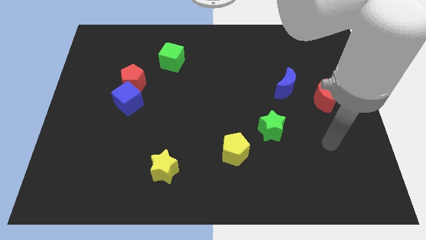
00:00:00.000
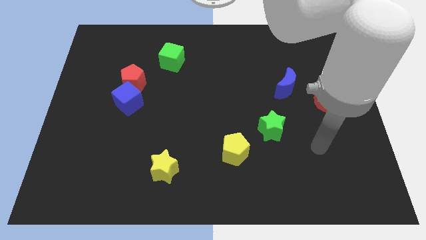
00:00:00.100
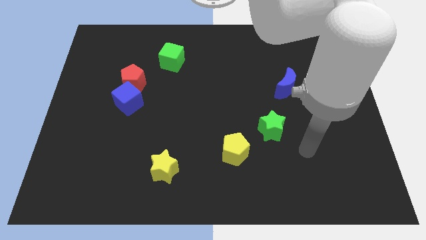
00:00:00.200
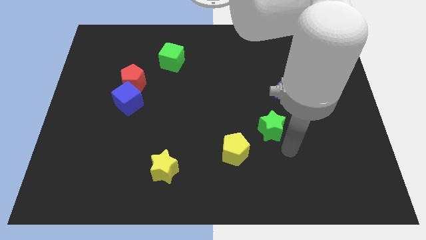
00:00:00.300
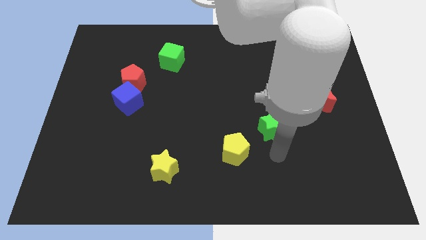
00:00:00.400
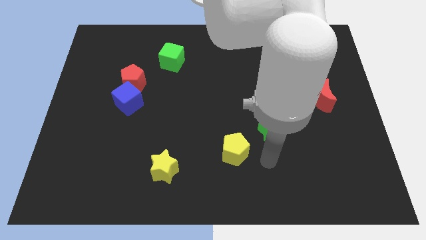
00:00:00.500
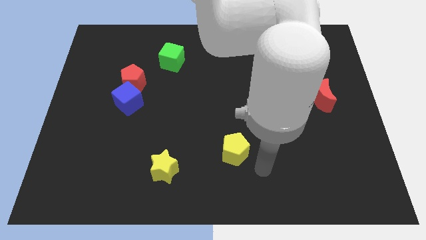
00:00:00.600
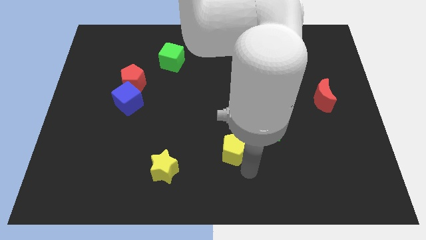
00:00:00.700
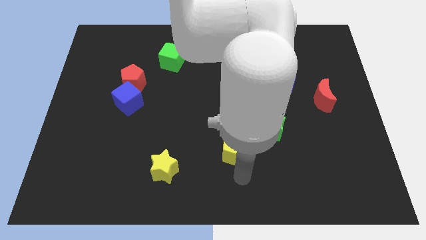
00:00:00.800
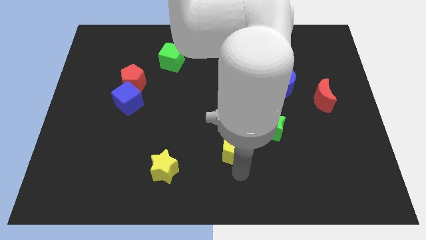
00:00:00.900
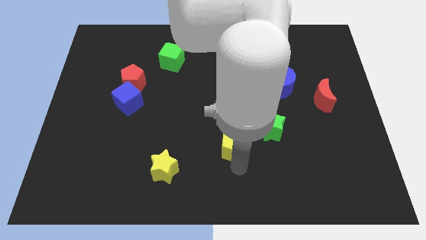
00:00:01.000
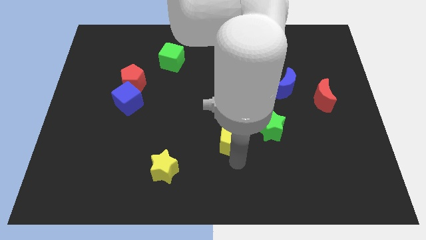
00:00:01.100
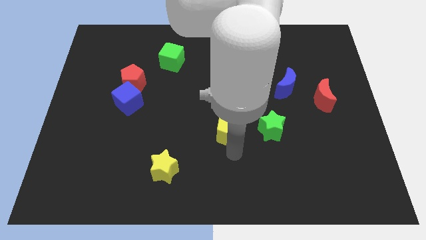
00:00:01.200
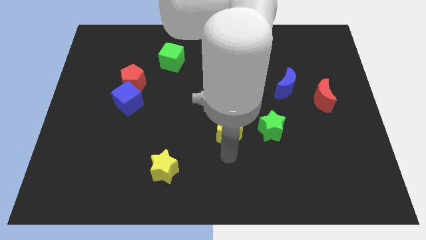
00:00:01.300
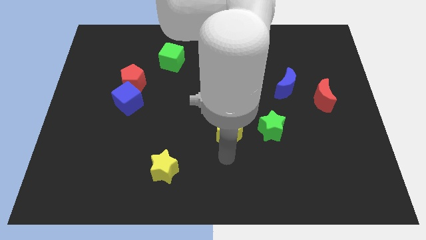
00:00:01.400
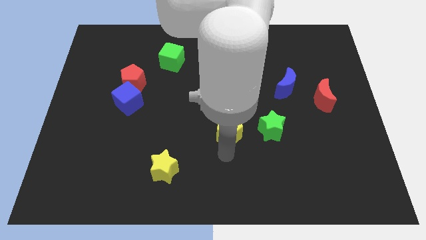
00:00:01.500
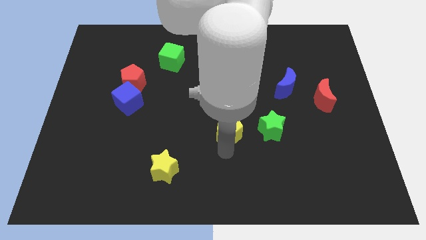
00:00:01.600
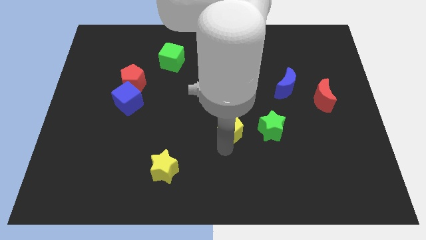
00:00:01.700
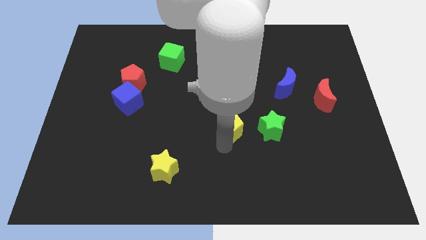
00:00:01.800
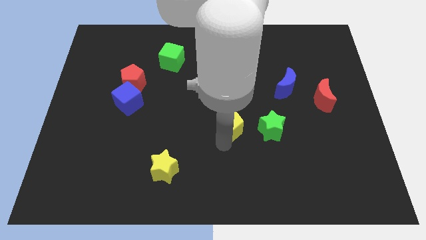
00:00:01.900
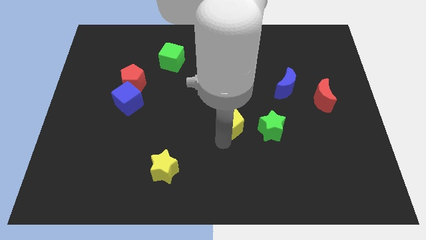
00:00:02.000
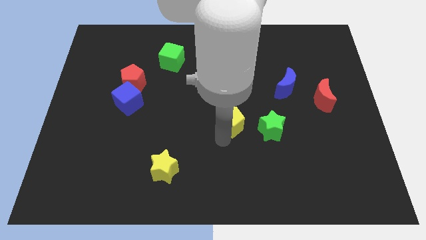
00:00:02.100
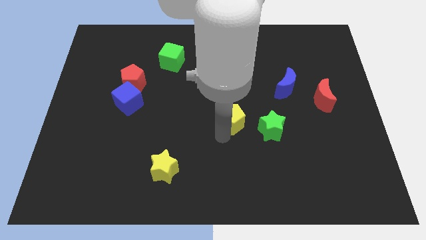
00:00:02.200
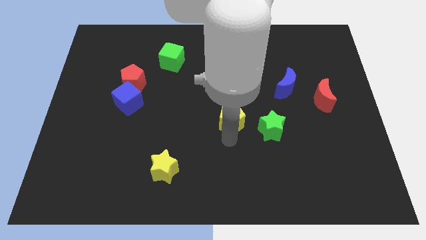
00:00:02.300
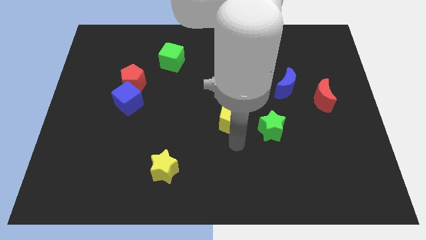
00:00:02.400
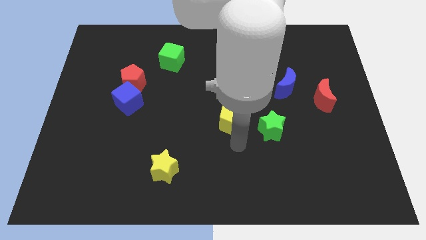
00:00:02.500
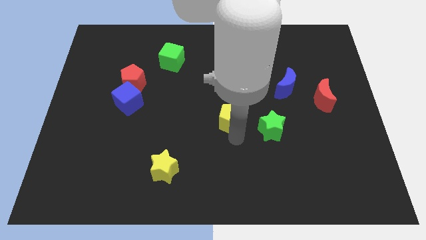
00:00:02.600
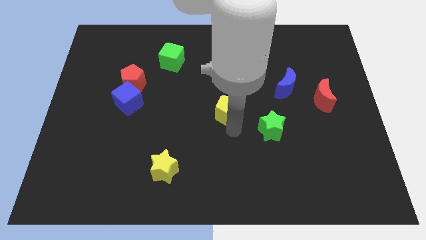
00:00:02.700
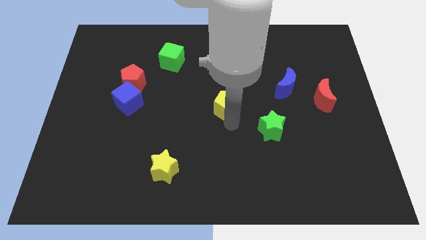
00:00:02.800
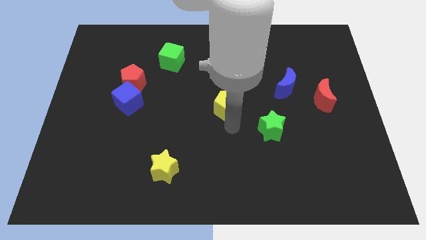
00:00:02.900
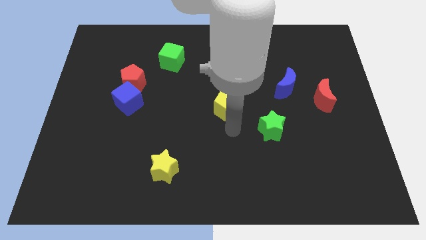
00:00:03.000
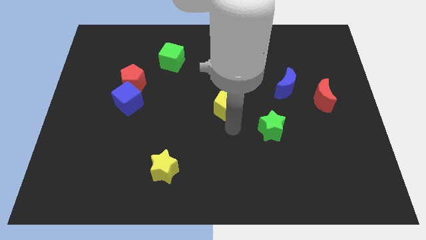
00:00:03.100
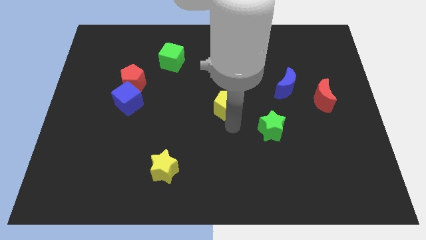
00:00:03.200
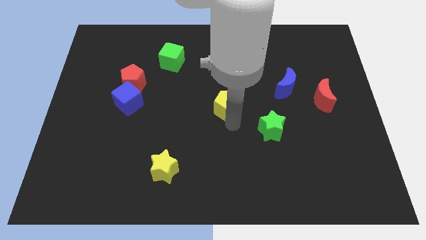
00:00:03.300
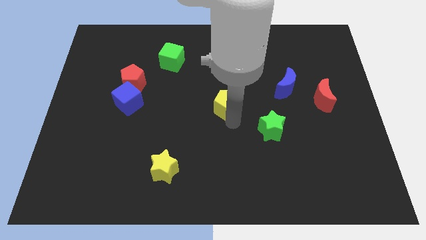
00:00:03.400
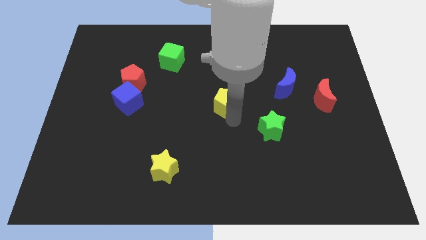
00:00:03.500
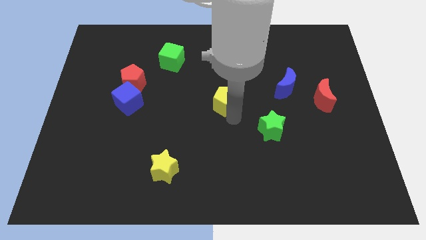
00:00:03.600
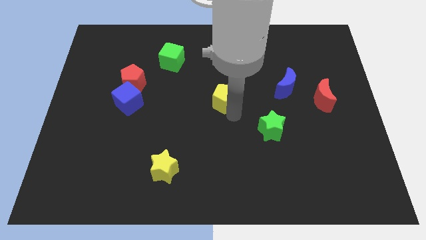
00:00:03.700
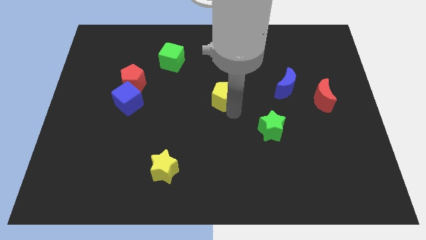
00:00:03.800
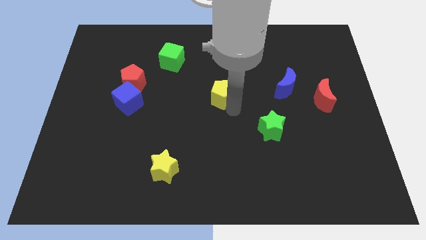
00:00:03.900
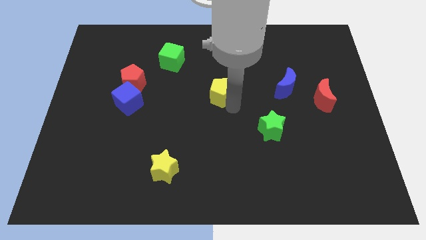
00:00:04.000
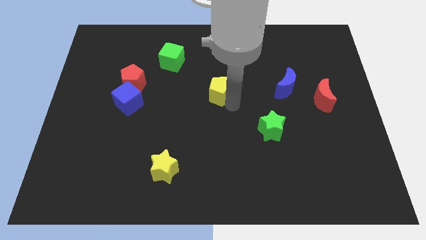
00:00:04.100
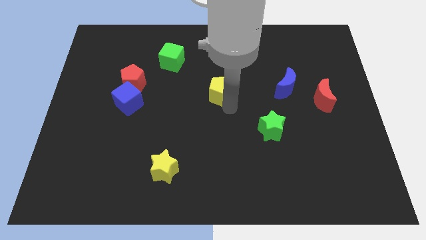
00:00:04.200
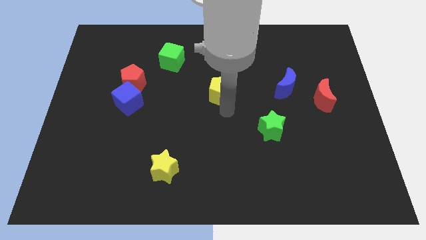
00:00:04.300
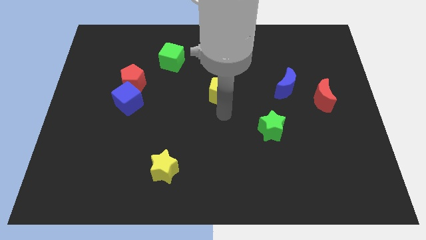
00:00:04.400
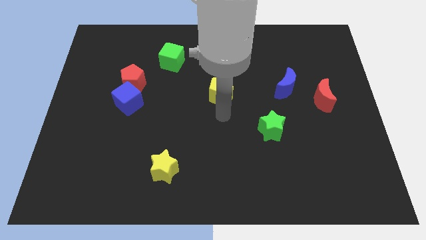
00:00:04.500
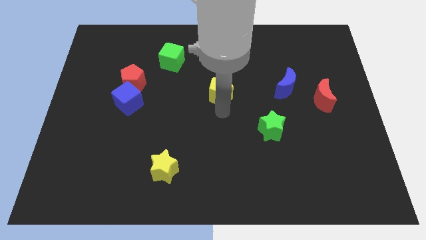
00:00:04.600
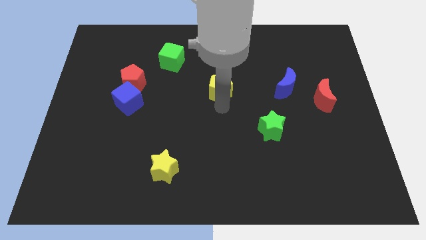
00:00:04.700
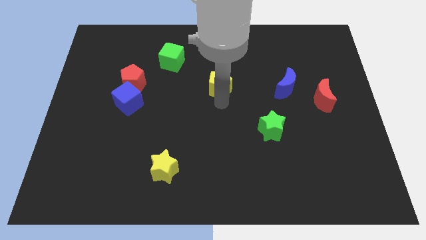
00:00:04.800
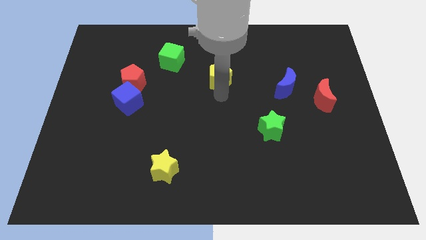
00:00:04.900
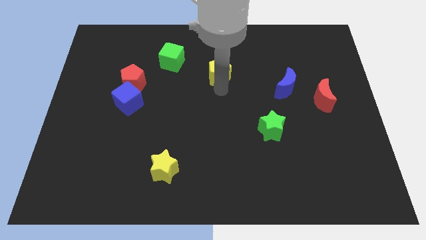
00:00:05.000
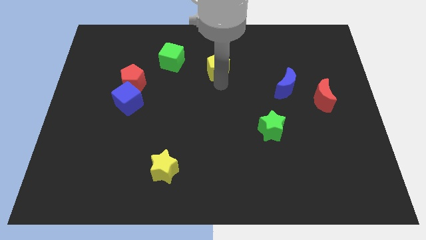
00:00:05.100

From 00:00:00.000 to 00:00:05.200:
slide the yellow pentagon to the right side of the green cube

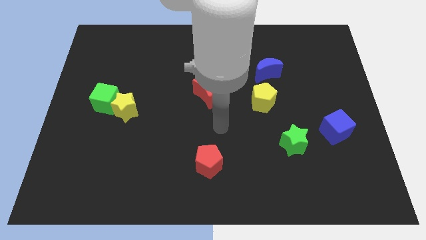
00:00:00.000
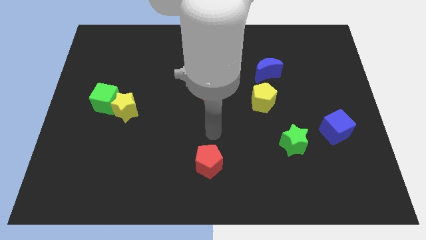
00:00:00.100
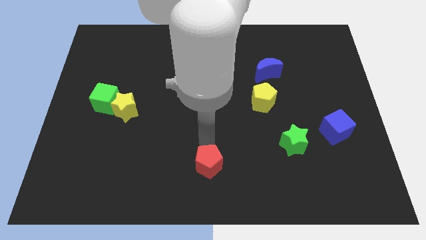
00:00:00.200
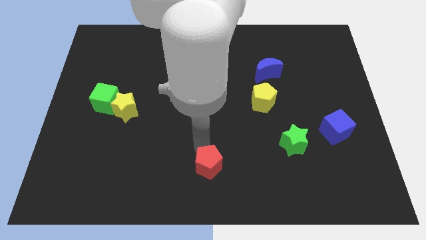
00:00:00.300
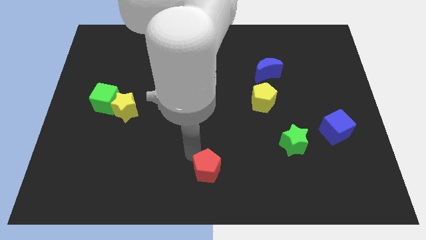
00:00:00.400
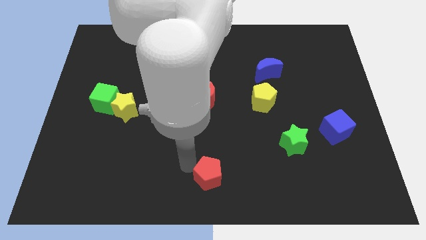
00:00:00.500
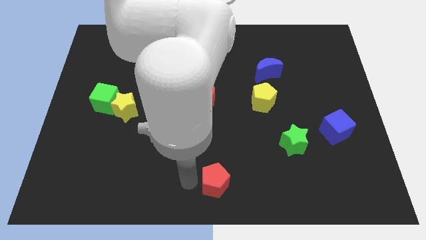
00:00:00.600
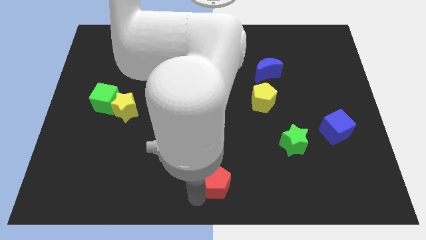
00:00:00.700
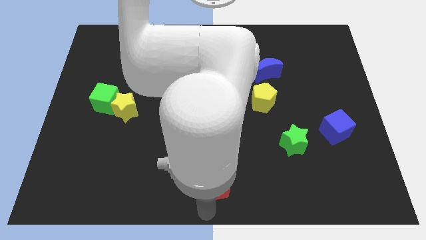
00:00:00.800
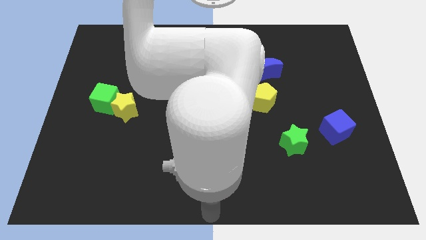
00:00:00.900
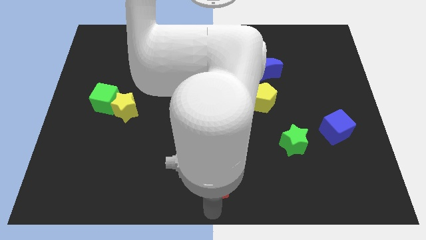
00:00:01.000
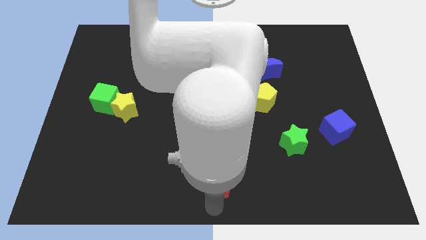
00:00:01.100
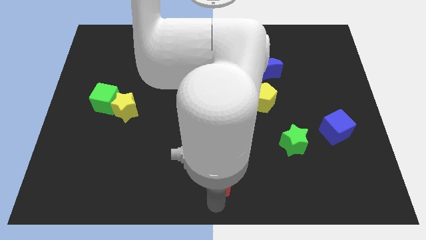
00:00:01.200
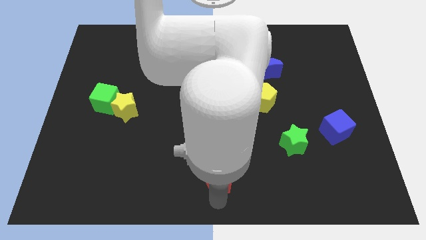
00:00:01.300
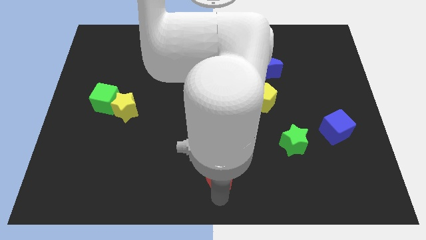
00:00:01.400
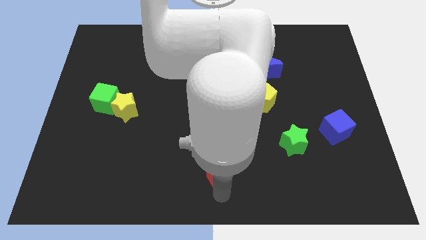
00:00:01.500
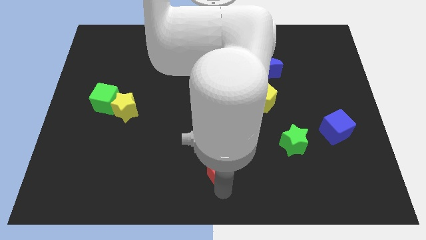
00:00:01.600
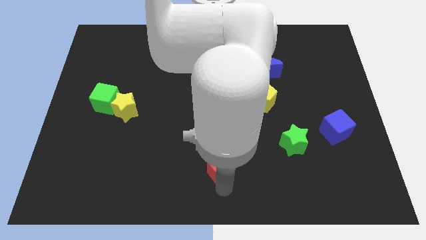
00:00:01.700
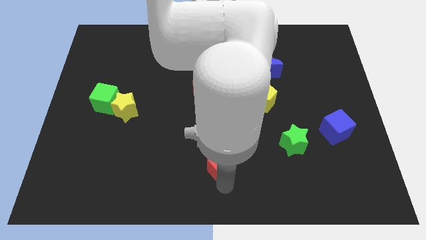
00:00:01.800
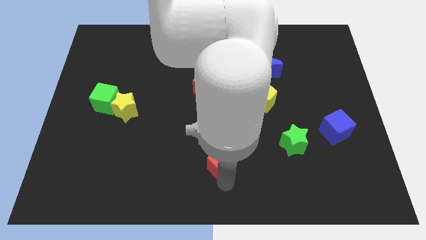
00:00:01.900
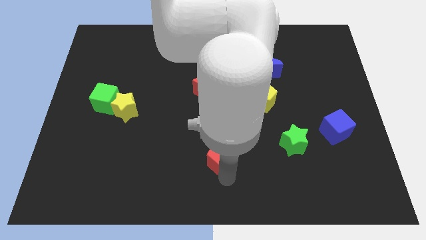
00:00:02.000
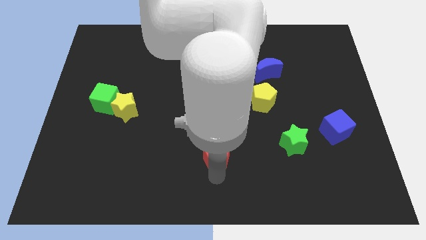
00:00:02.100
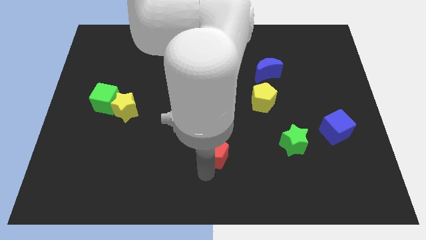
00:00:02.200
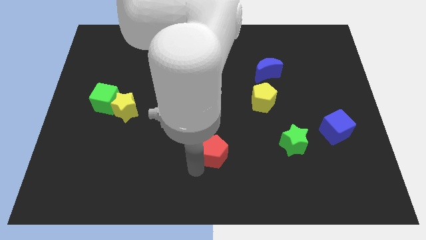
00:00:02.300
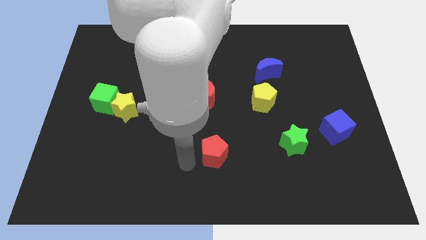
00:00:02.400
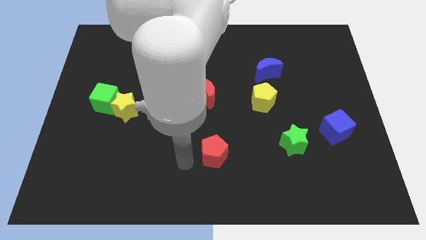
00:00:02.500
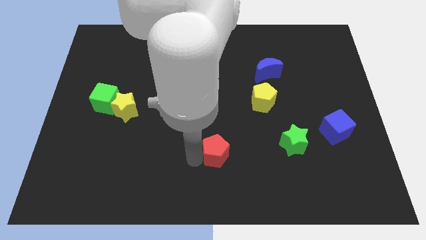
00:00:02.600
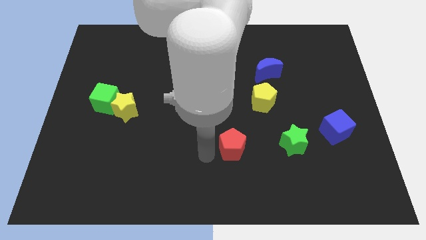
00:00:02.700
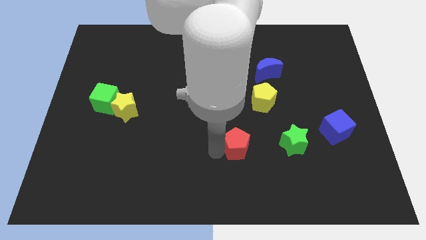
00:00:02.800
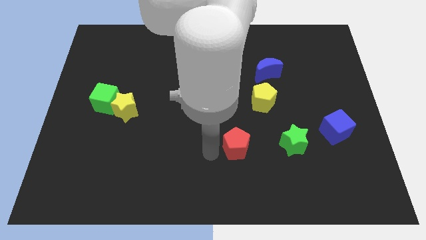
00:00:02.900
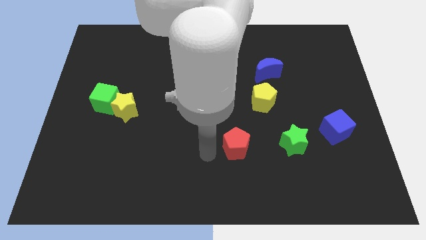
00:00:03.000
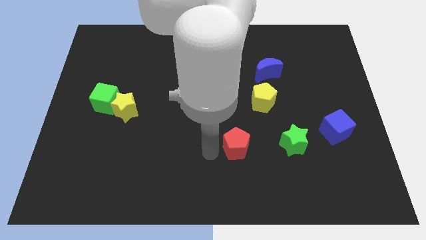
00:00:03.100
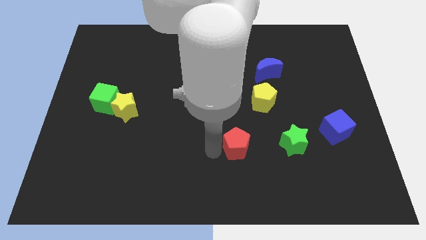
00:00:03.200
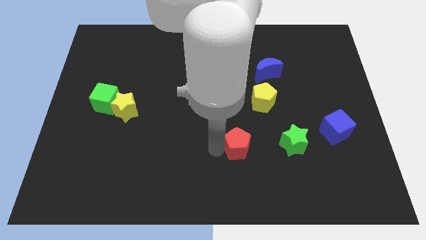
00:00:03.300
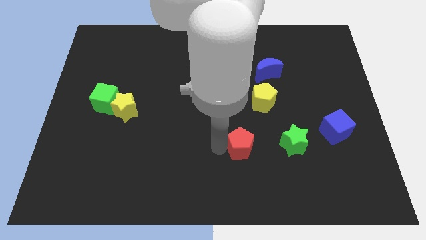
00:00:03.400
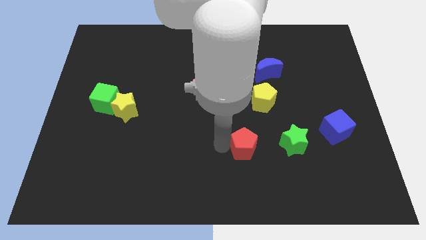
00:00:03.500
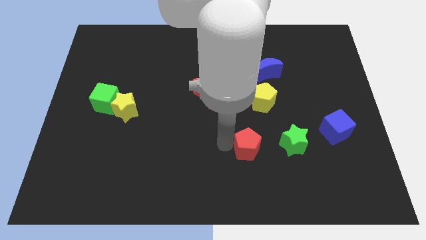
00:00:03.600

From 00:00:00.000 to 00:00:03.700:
push the red pentagon to the bottom side of the yellow pentagon
